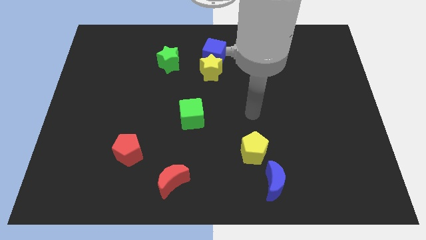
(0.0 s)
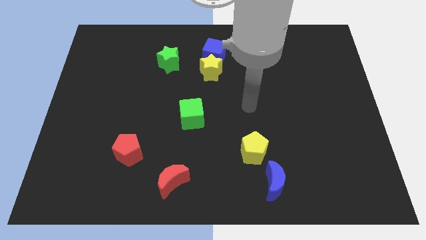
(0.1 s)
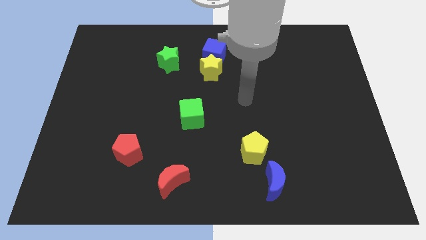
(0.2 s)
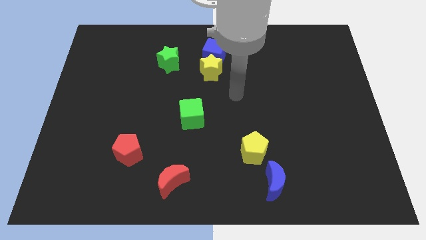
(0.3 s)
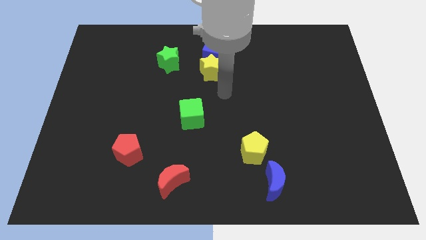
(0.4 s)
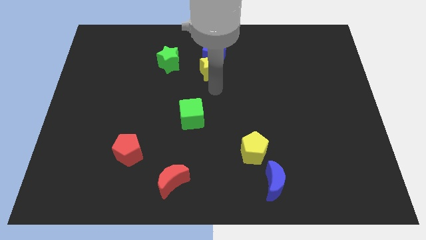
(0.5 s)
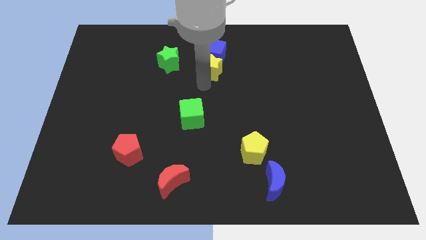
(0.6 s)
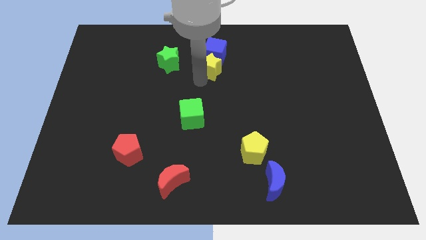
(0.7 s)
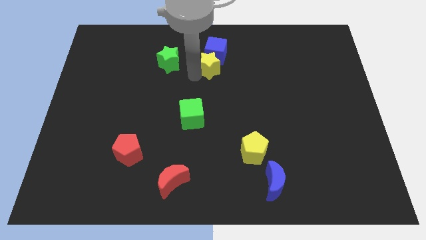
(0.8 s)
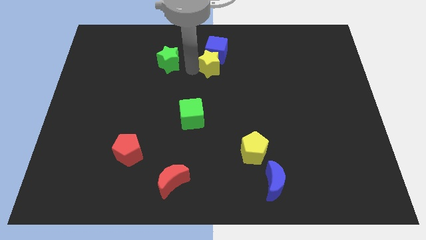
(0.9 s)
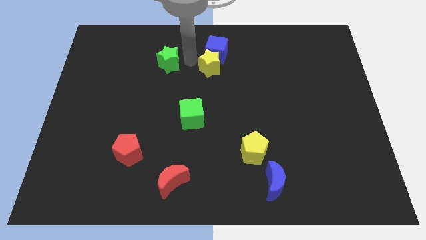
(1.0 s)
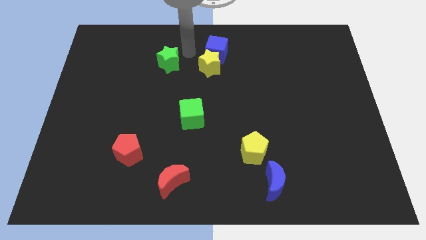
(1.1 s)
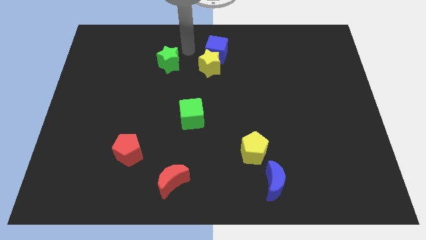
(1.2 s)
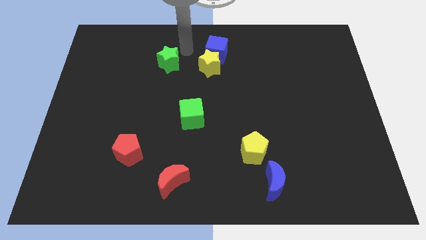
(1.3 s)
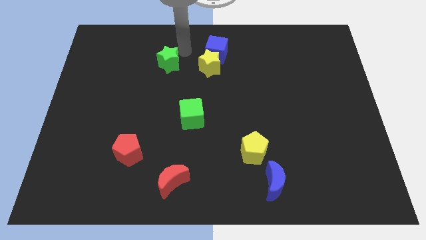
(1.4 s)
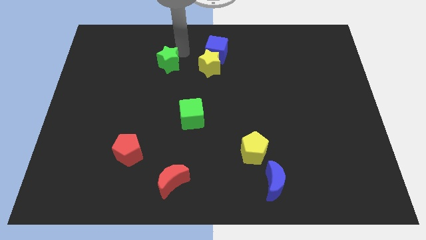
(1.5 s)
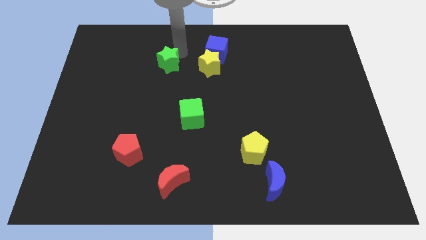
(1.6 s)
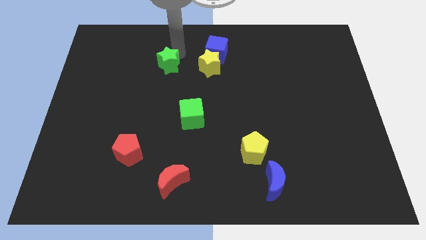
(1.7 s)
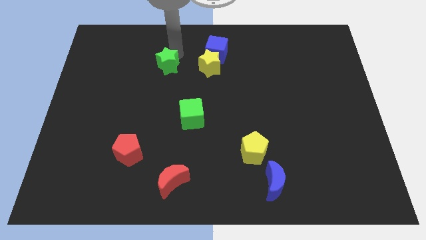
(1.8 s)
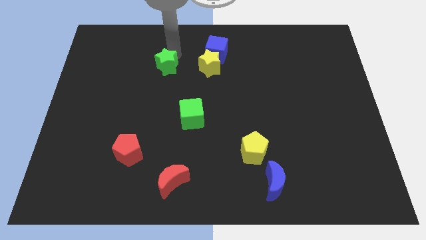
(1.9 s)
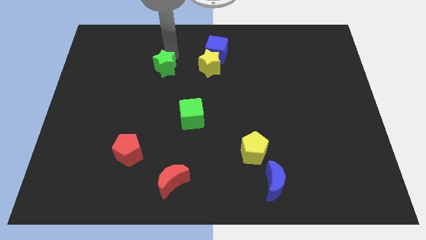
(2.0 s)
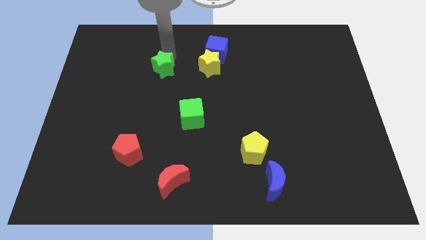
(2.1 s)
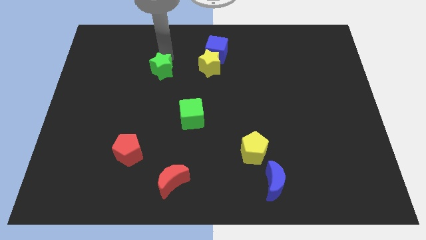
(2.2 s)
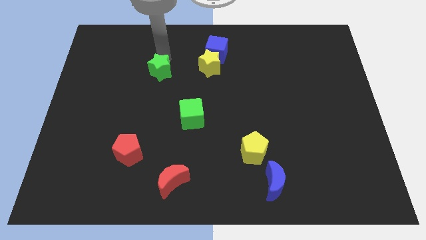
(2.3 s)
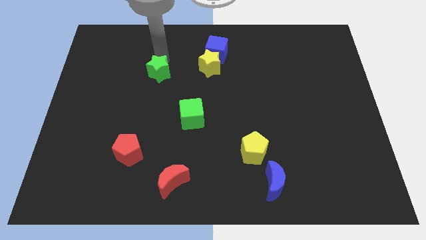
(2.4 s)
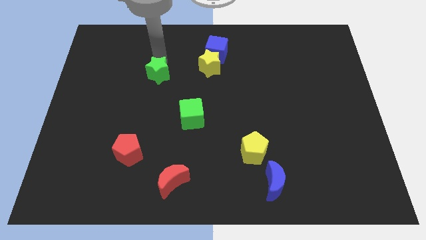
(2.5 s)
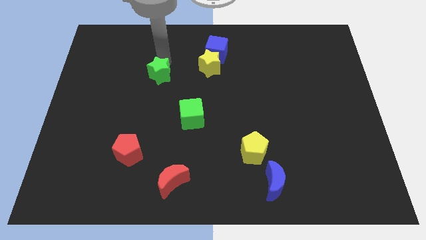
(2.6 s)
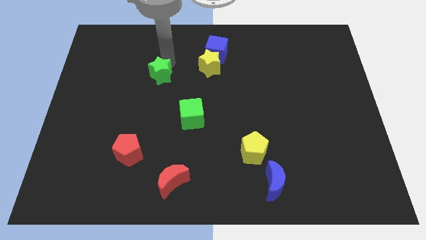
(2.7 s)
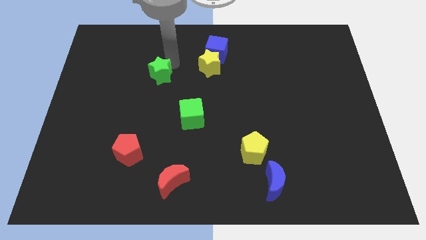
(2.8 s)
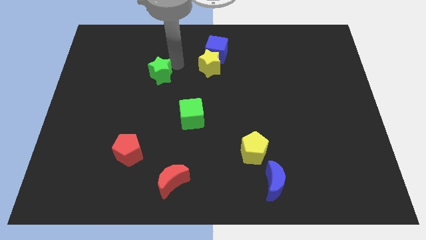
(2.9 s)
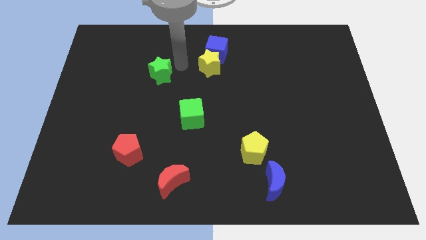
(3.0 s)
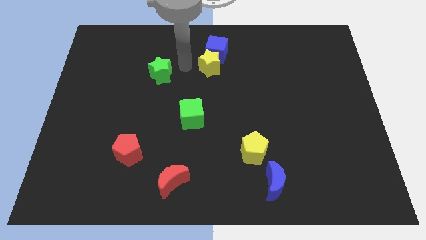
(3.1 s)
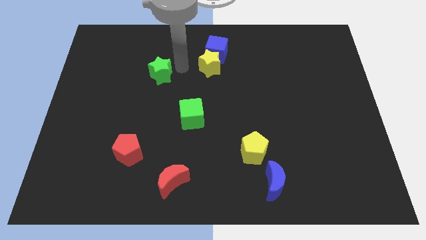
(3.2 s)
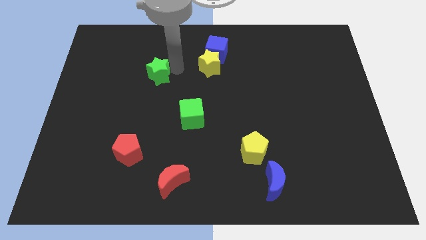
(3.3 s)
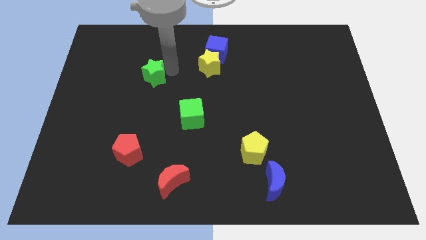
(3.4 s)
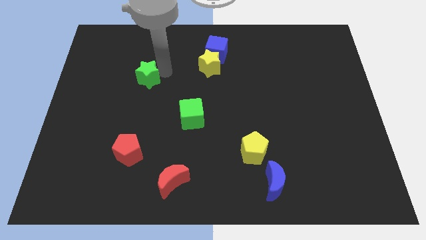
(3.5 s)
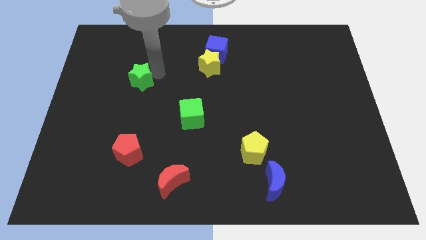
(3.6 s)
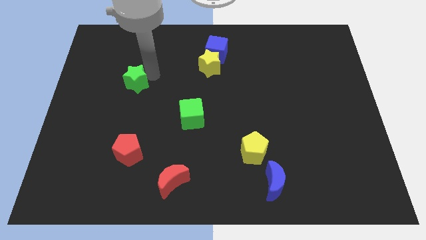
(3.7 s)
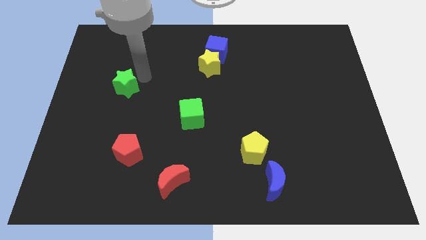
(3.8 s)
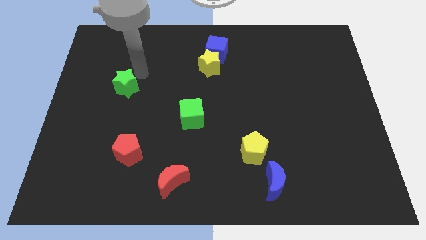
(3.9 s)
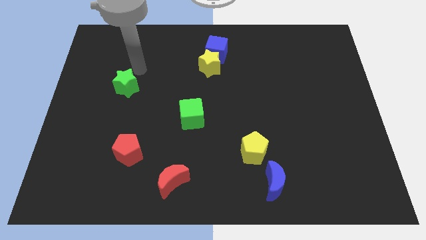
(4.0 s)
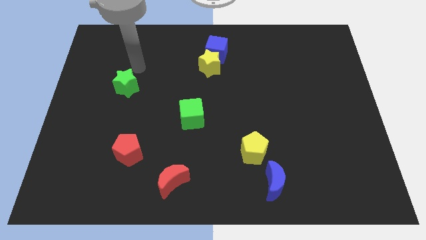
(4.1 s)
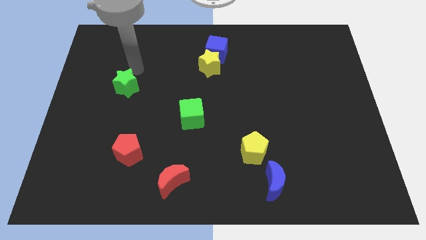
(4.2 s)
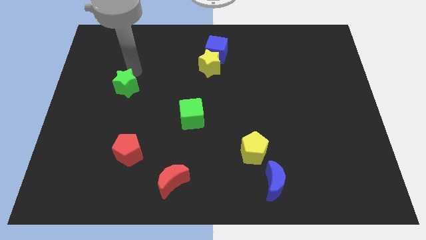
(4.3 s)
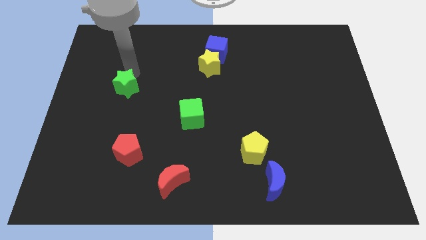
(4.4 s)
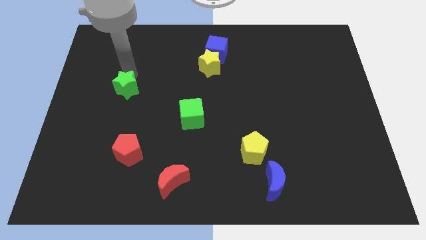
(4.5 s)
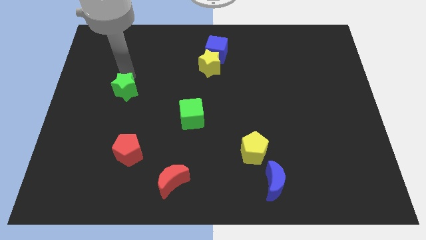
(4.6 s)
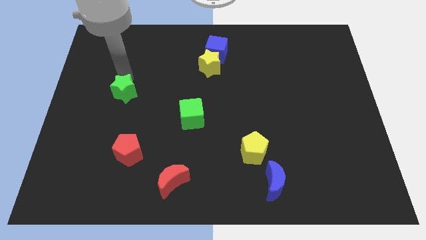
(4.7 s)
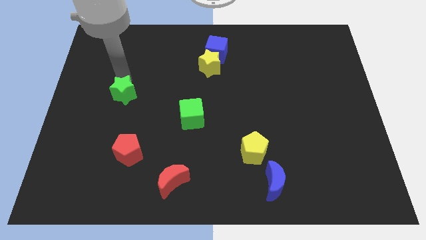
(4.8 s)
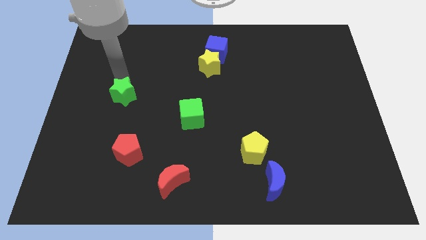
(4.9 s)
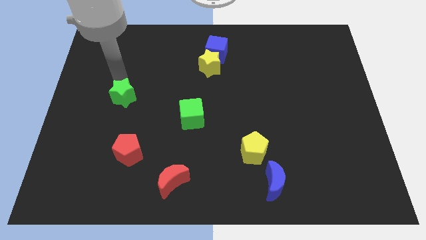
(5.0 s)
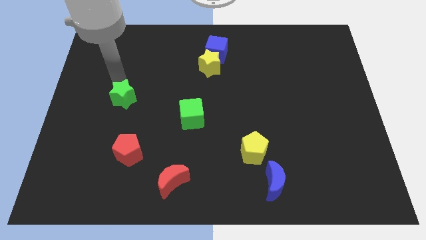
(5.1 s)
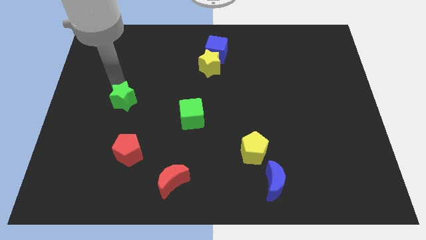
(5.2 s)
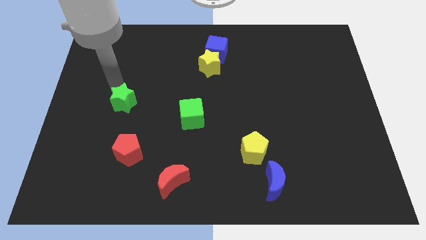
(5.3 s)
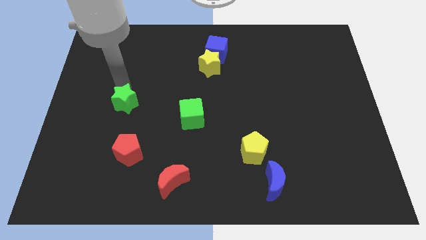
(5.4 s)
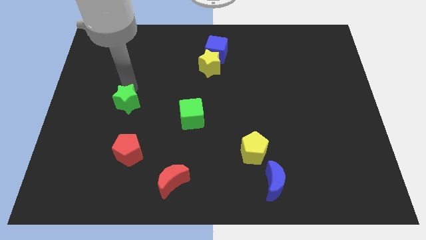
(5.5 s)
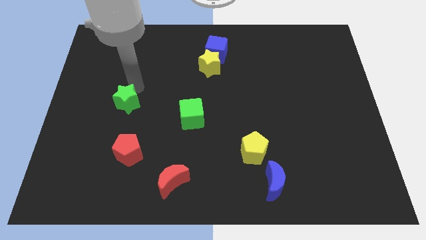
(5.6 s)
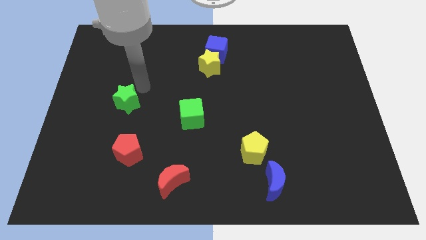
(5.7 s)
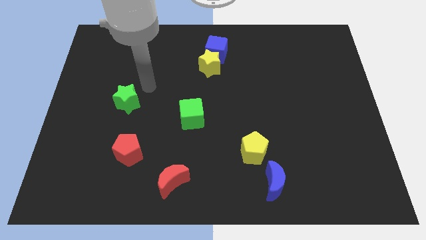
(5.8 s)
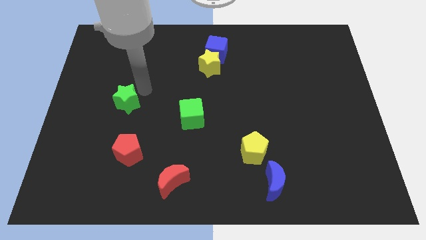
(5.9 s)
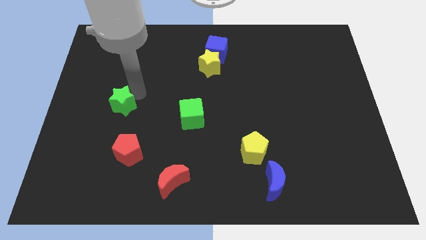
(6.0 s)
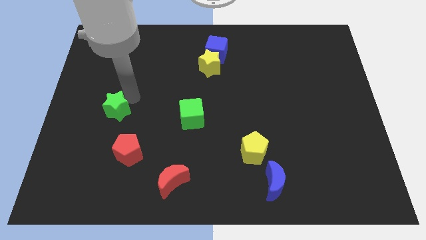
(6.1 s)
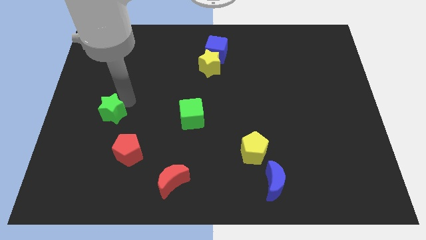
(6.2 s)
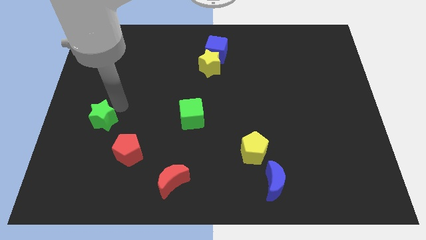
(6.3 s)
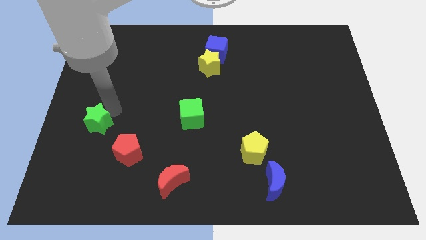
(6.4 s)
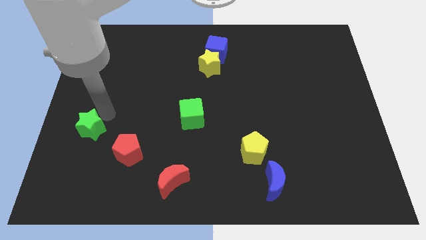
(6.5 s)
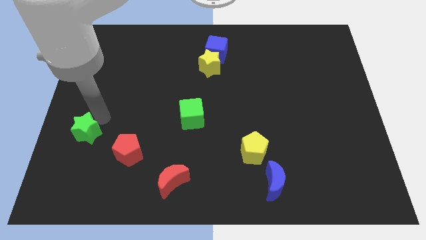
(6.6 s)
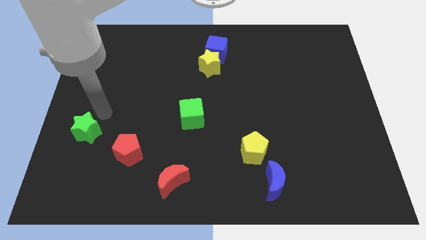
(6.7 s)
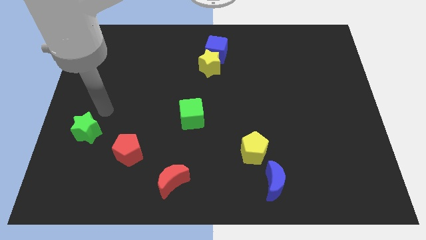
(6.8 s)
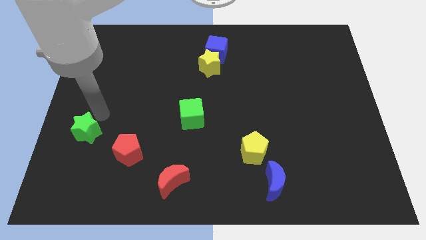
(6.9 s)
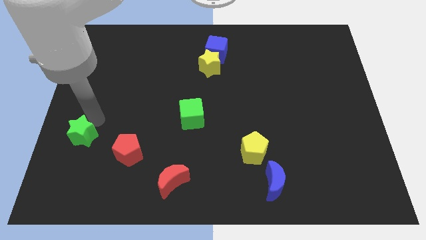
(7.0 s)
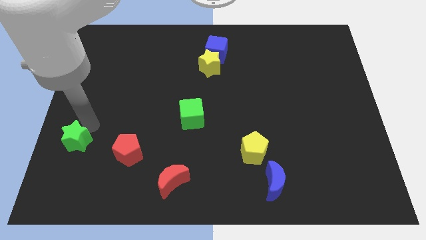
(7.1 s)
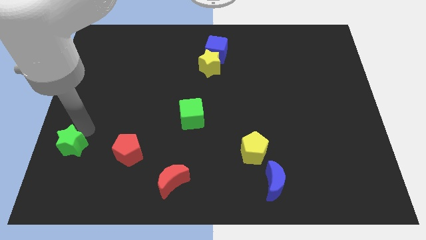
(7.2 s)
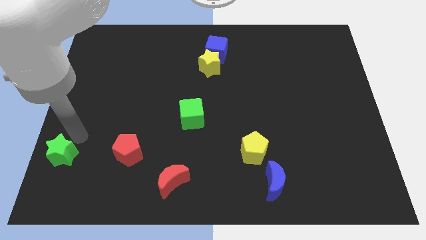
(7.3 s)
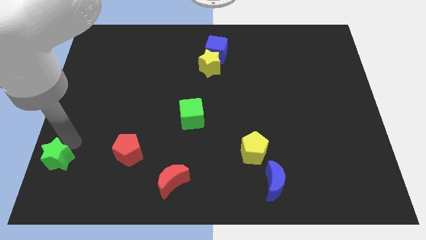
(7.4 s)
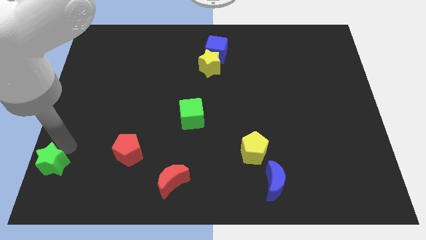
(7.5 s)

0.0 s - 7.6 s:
slide the green star to the bottom left corner
